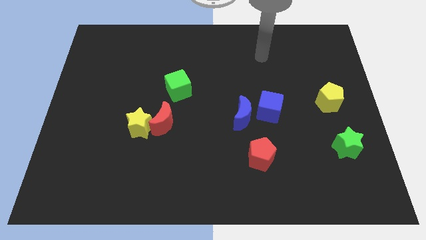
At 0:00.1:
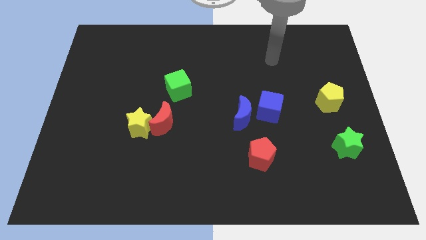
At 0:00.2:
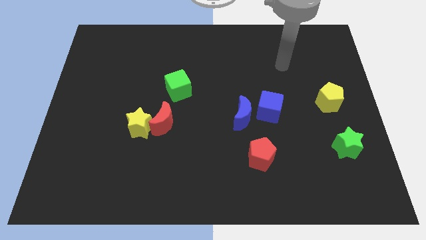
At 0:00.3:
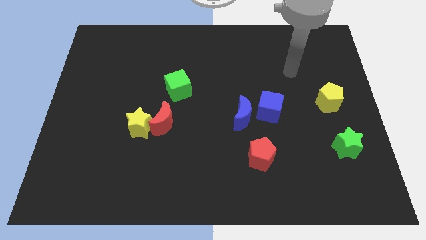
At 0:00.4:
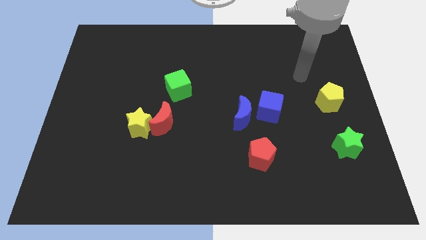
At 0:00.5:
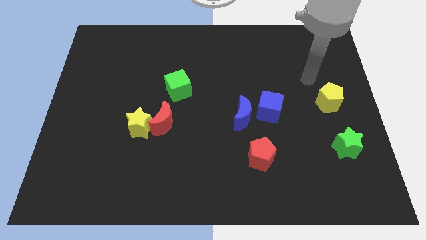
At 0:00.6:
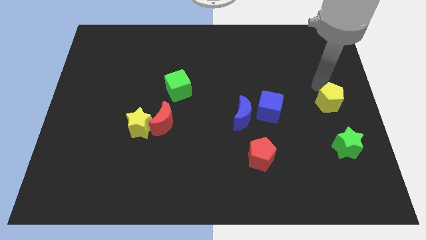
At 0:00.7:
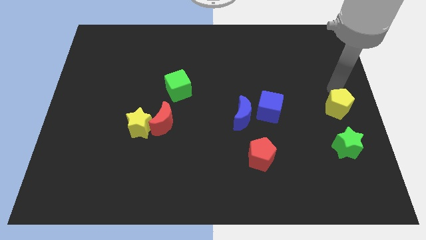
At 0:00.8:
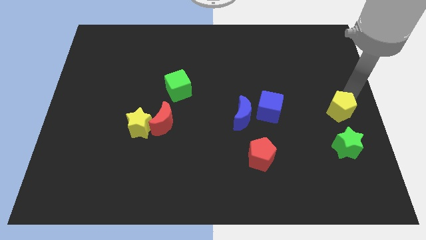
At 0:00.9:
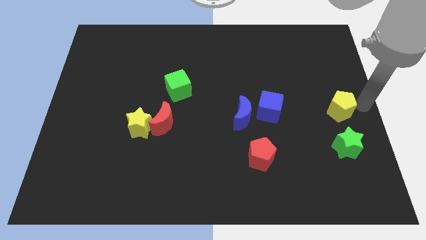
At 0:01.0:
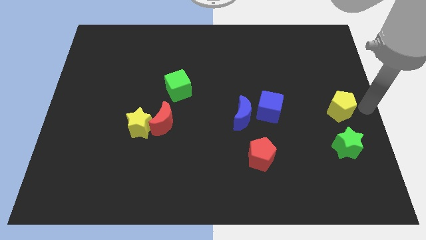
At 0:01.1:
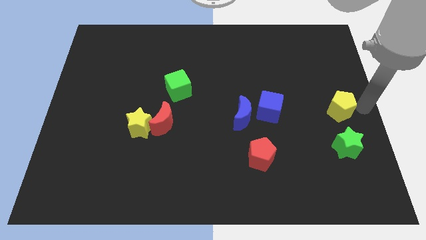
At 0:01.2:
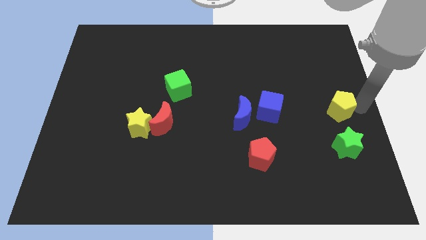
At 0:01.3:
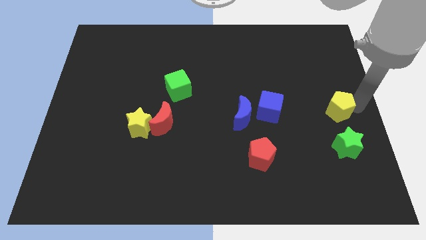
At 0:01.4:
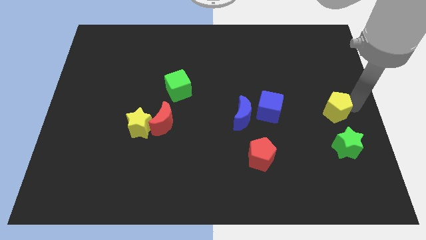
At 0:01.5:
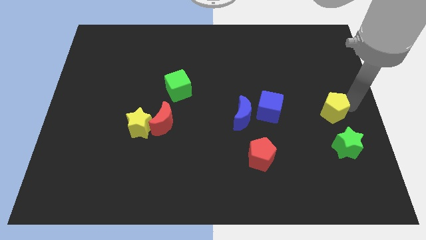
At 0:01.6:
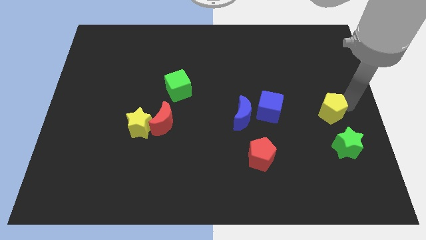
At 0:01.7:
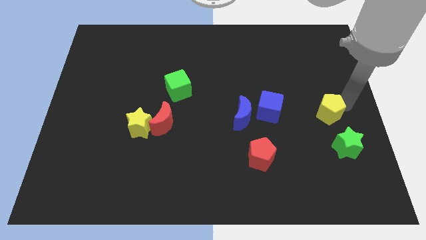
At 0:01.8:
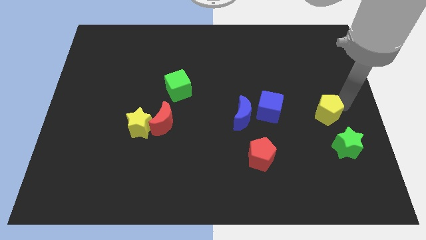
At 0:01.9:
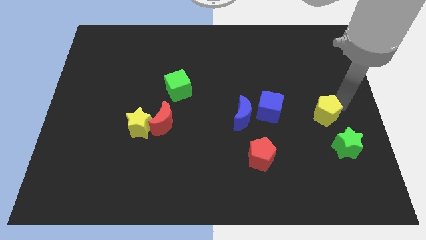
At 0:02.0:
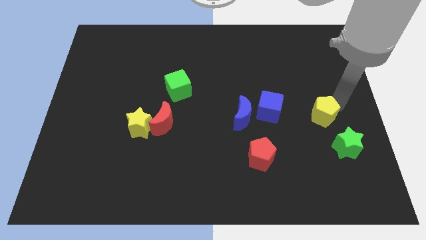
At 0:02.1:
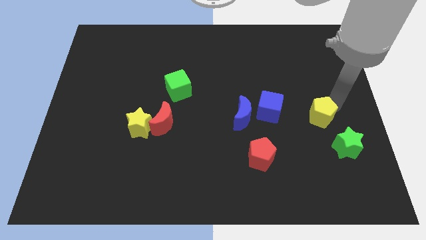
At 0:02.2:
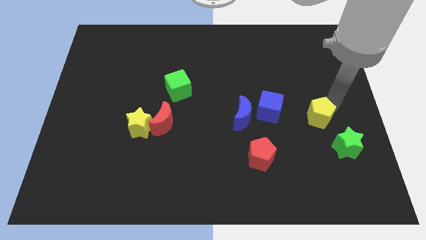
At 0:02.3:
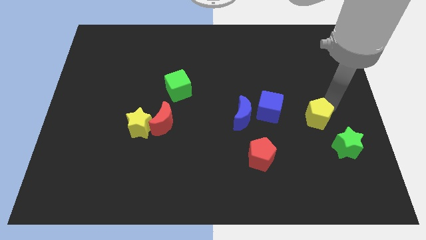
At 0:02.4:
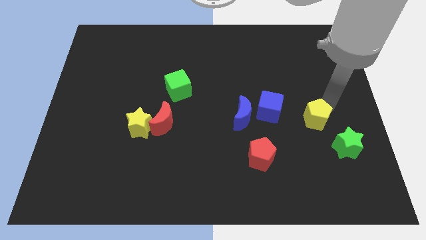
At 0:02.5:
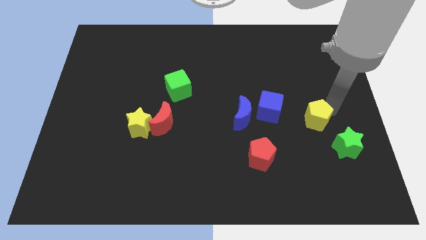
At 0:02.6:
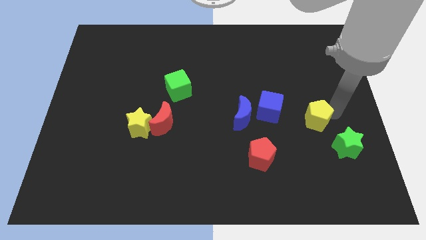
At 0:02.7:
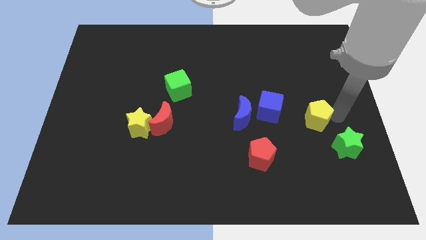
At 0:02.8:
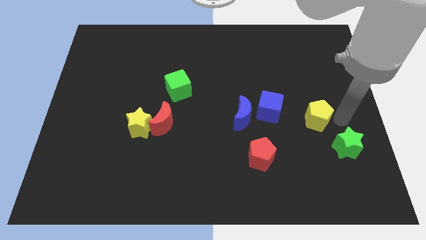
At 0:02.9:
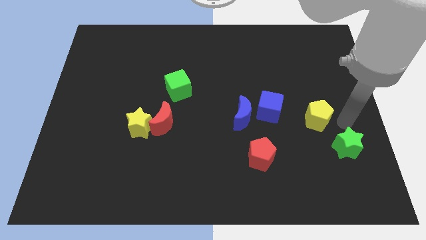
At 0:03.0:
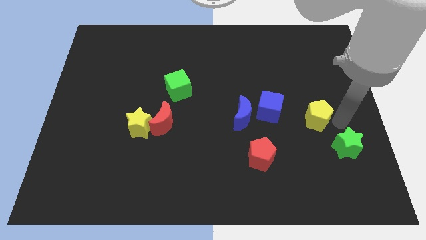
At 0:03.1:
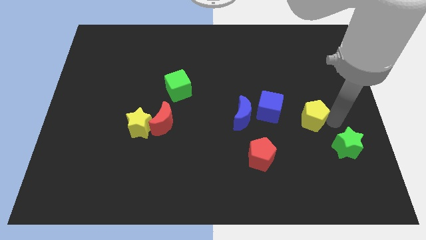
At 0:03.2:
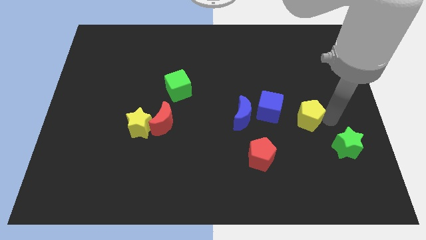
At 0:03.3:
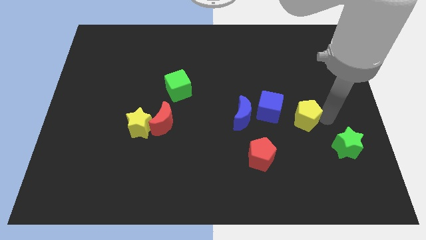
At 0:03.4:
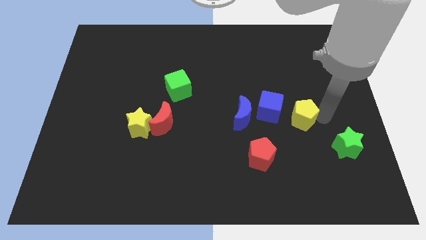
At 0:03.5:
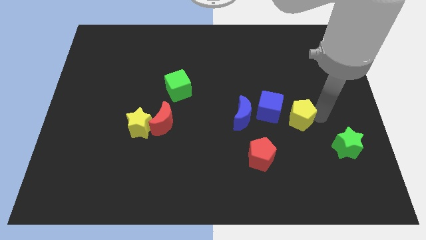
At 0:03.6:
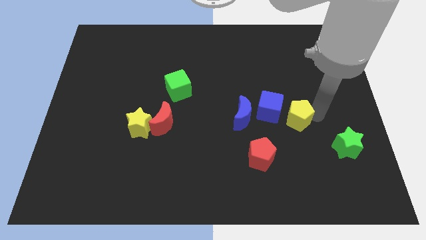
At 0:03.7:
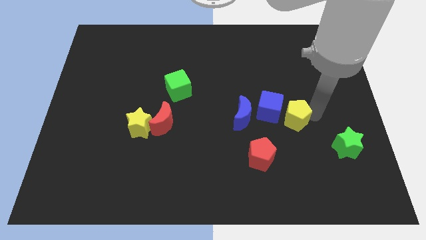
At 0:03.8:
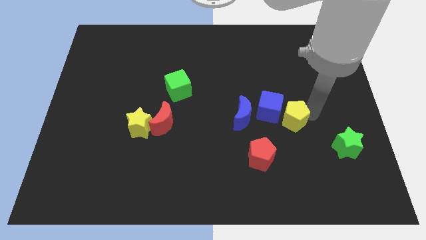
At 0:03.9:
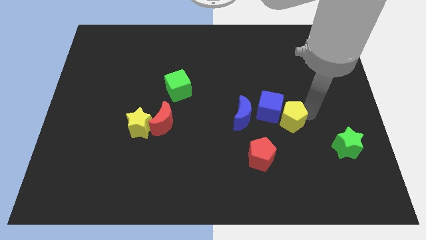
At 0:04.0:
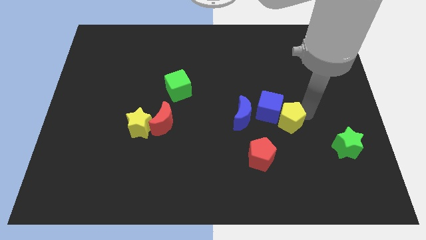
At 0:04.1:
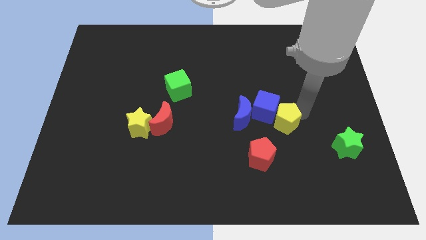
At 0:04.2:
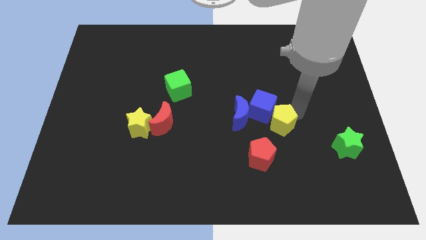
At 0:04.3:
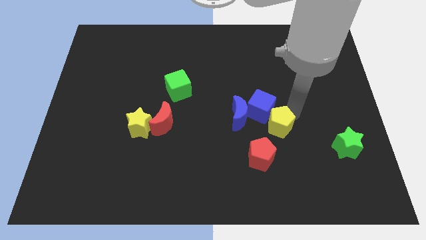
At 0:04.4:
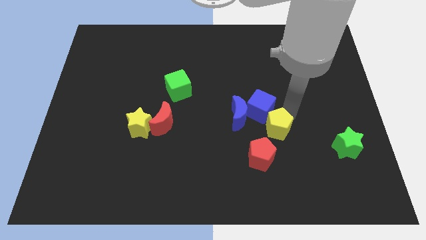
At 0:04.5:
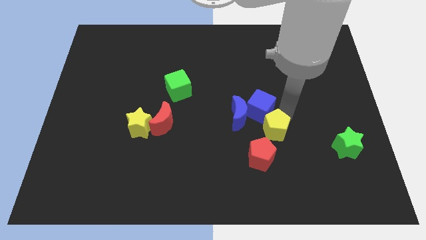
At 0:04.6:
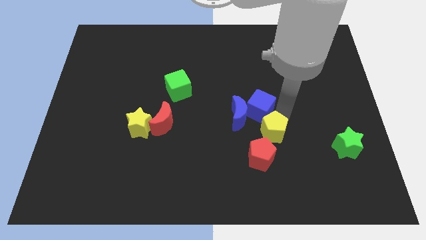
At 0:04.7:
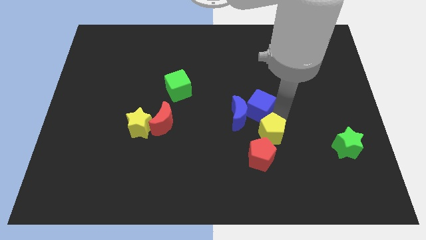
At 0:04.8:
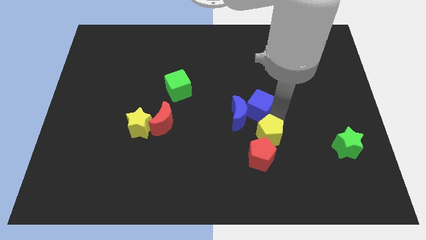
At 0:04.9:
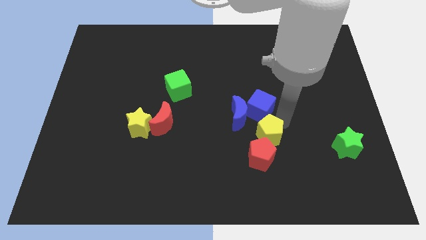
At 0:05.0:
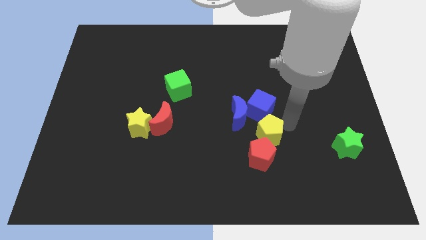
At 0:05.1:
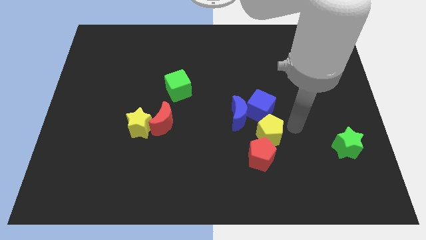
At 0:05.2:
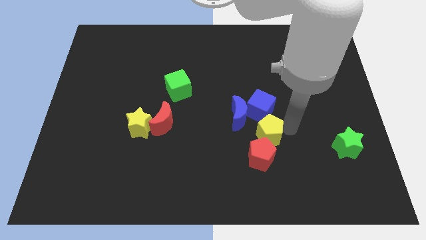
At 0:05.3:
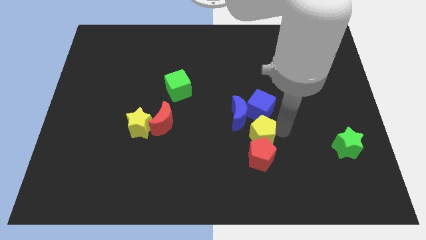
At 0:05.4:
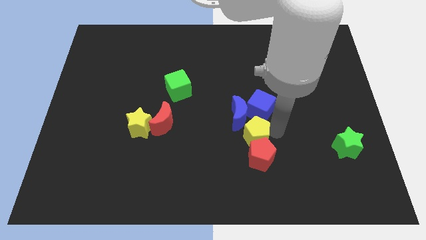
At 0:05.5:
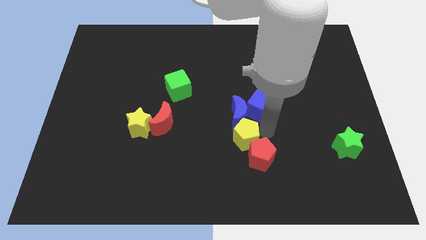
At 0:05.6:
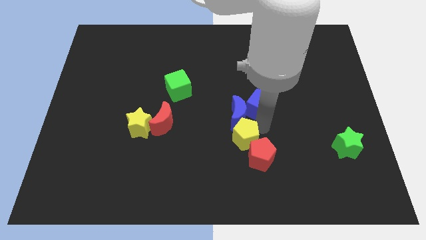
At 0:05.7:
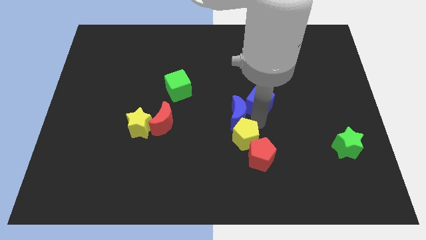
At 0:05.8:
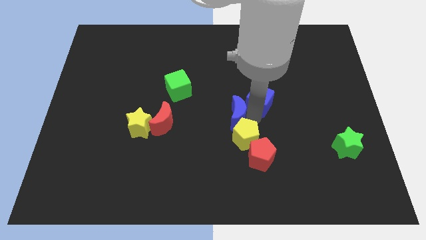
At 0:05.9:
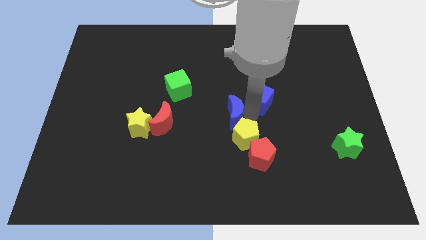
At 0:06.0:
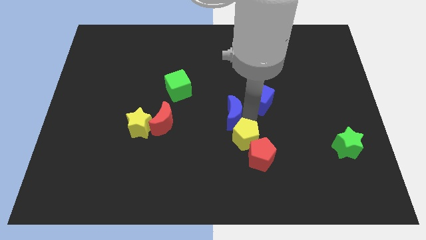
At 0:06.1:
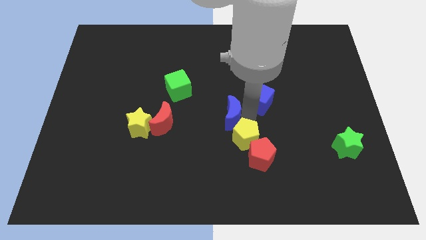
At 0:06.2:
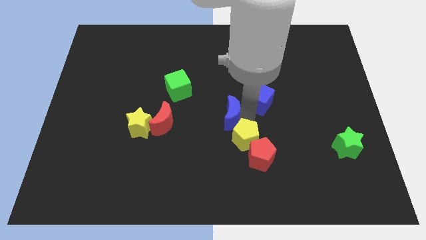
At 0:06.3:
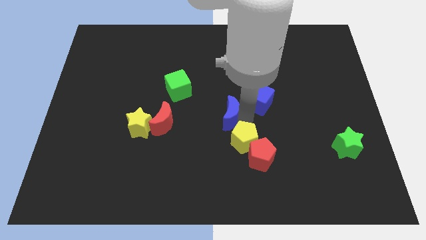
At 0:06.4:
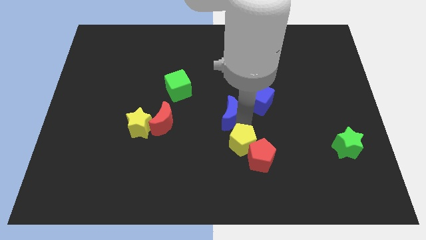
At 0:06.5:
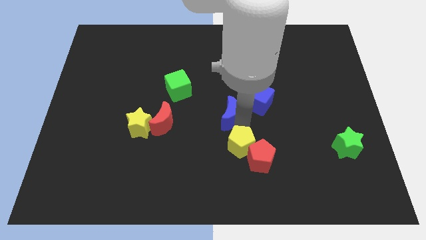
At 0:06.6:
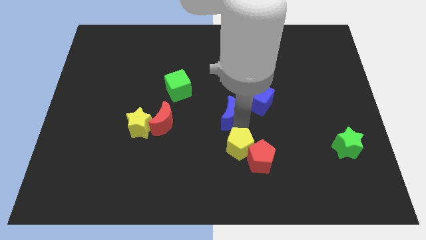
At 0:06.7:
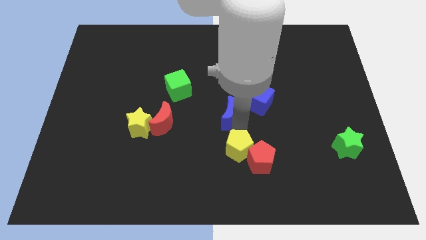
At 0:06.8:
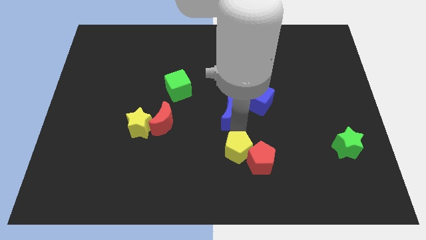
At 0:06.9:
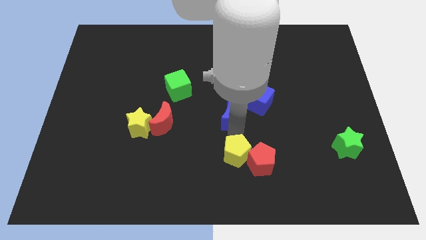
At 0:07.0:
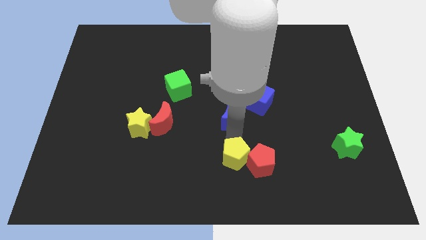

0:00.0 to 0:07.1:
put the yellow pentagon diagonally down and to the left of the red pentagon

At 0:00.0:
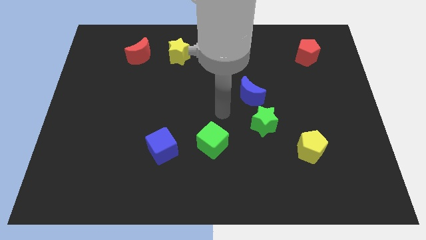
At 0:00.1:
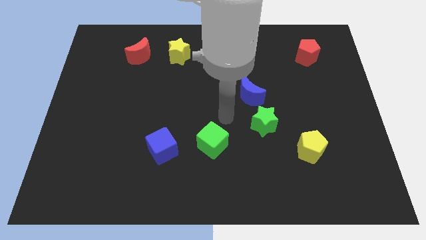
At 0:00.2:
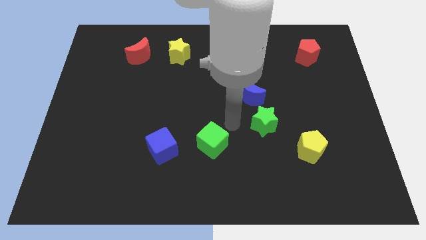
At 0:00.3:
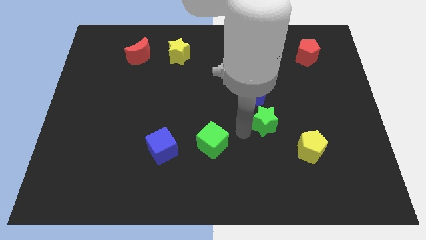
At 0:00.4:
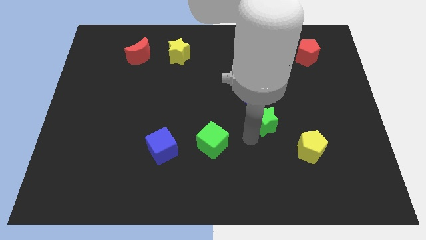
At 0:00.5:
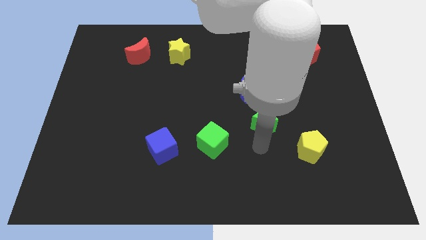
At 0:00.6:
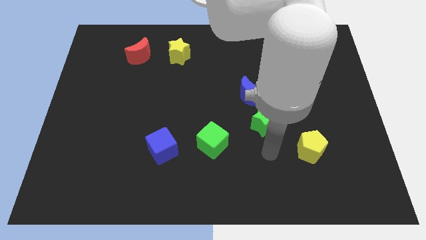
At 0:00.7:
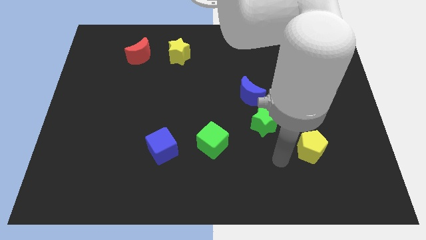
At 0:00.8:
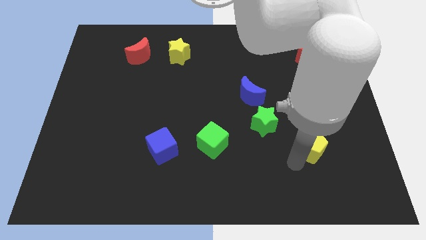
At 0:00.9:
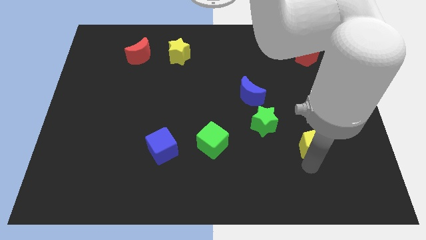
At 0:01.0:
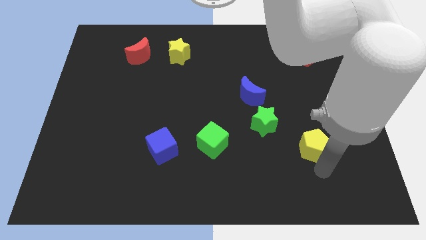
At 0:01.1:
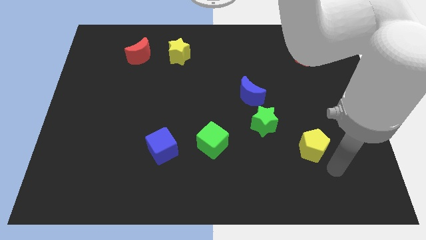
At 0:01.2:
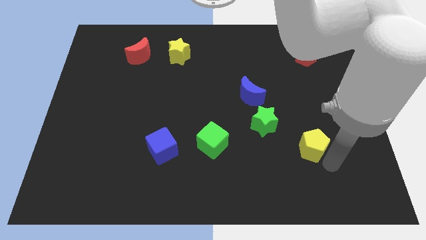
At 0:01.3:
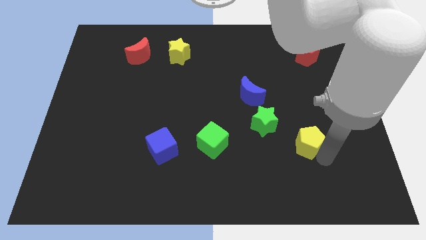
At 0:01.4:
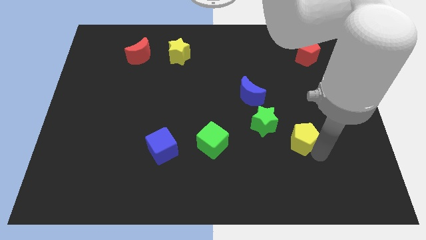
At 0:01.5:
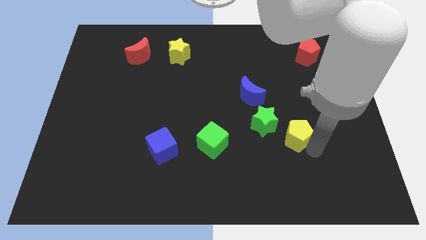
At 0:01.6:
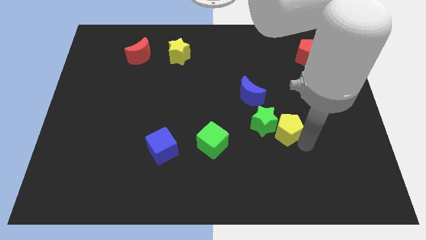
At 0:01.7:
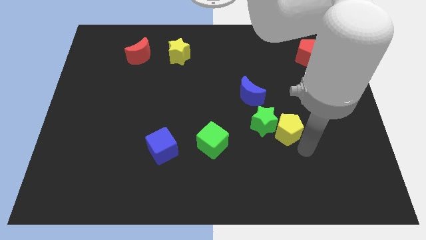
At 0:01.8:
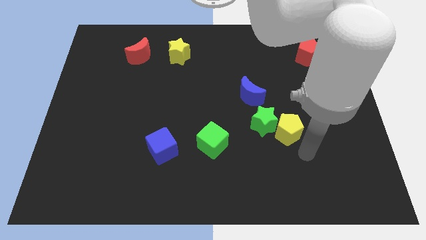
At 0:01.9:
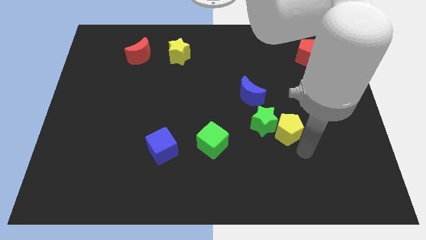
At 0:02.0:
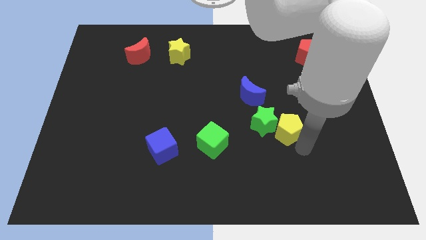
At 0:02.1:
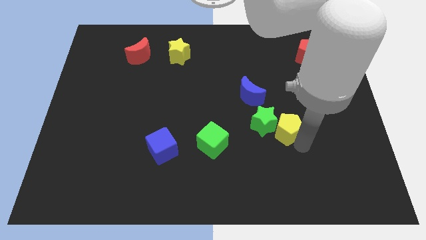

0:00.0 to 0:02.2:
move the yellow pentagon diagonally down and to the right of the blue moon
